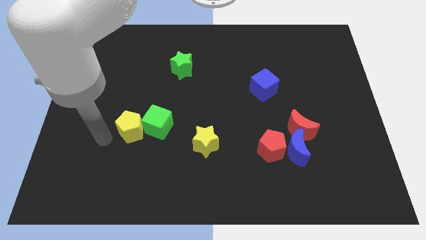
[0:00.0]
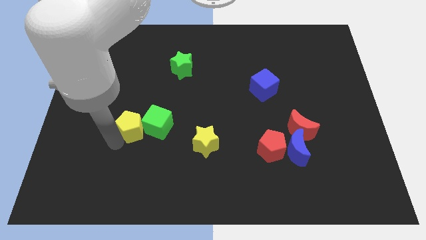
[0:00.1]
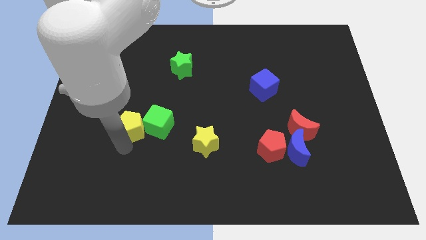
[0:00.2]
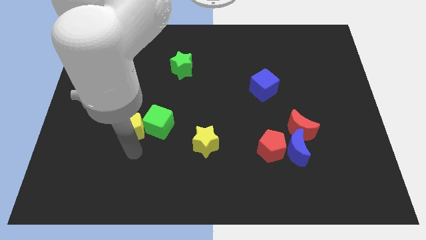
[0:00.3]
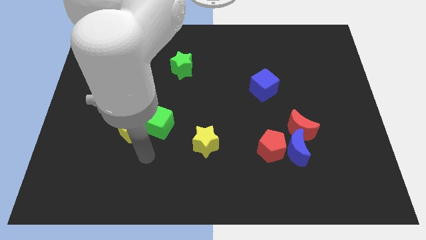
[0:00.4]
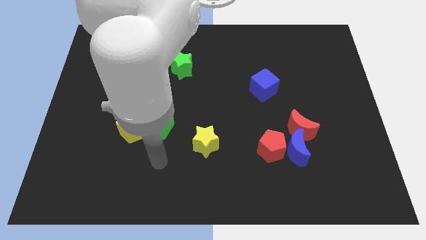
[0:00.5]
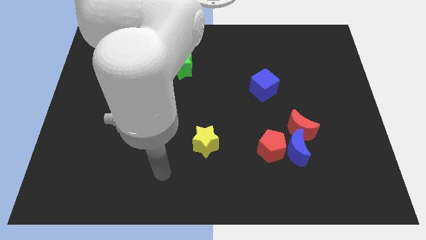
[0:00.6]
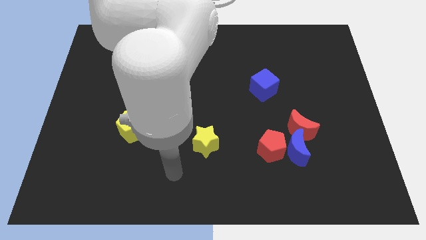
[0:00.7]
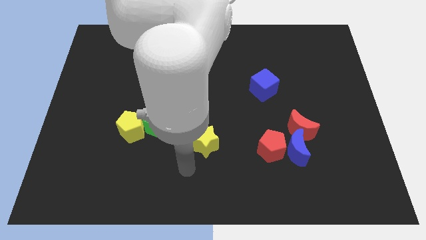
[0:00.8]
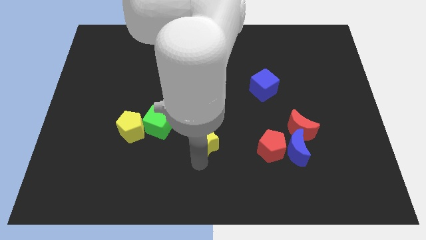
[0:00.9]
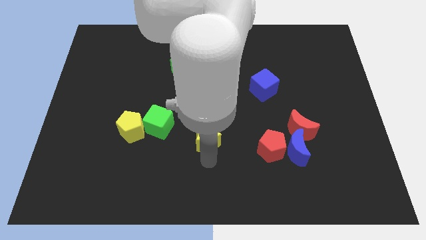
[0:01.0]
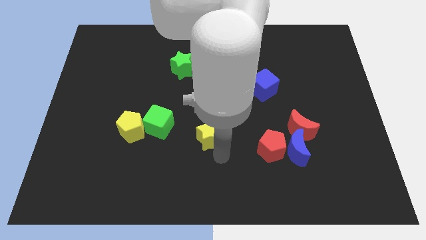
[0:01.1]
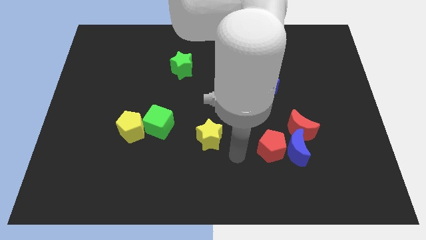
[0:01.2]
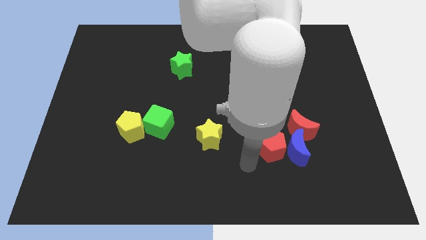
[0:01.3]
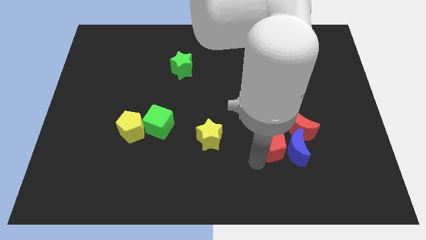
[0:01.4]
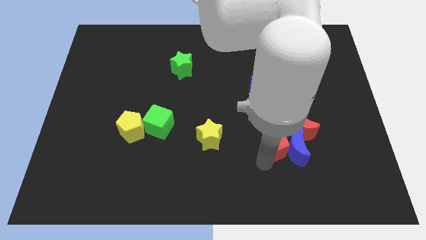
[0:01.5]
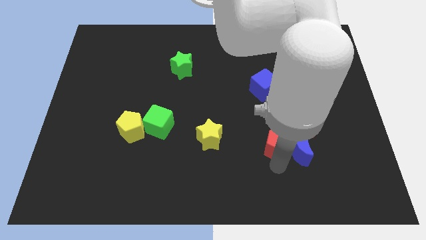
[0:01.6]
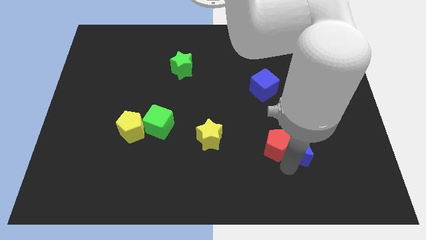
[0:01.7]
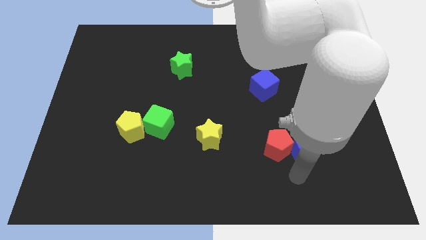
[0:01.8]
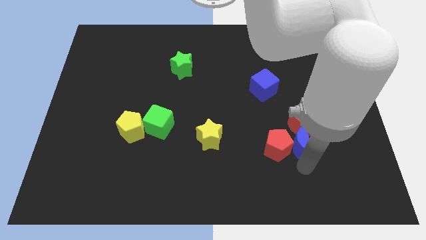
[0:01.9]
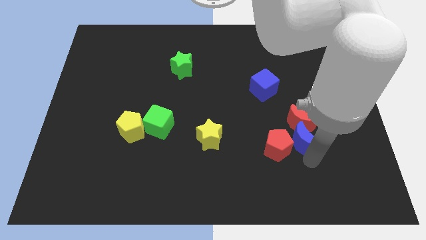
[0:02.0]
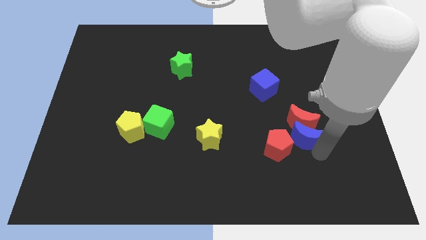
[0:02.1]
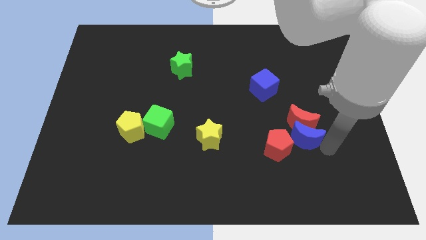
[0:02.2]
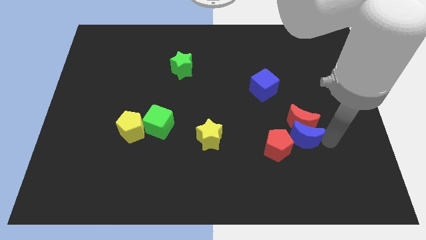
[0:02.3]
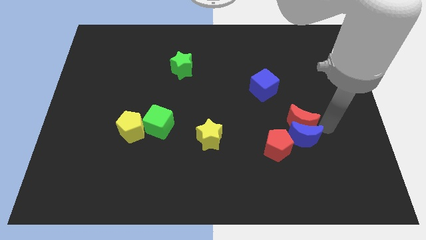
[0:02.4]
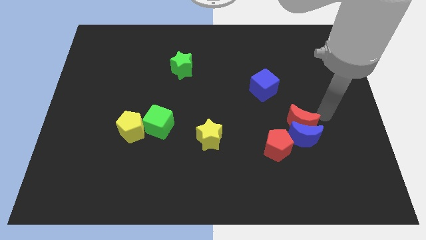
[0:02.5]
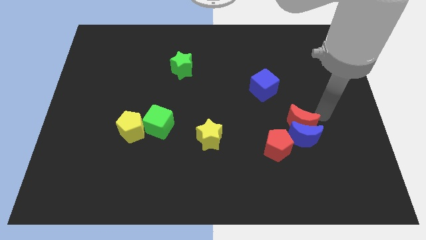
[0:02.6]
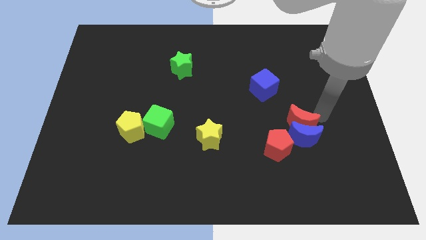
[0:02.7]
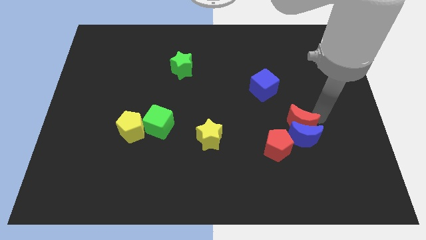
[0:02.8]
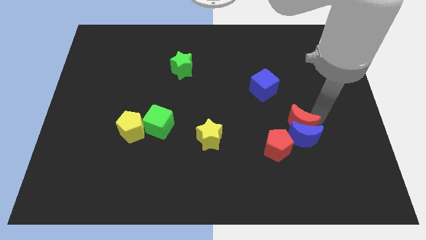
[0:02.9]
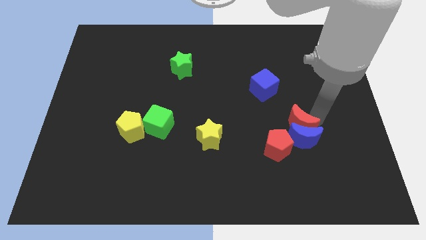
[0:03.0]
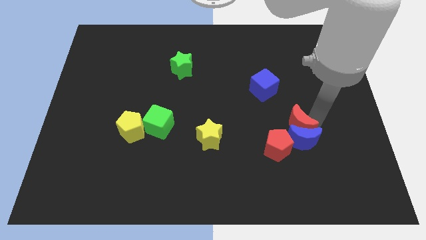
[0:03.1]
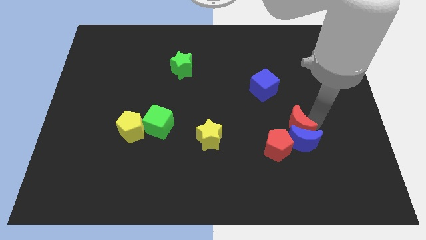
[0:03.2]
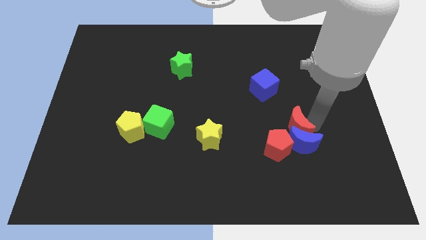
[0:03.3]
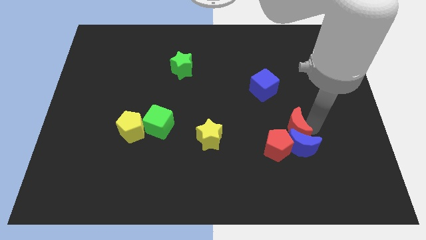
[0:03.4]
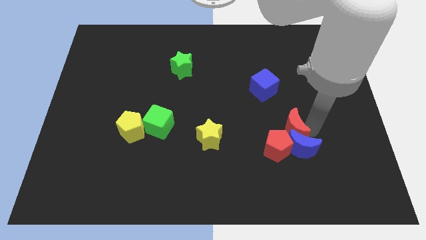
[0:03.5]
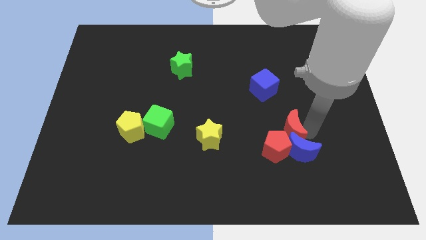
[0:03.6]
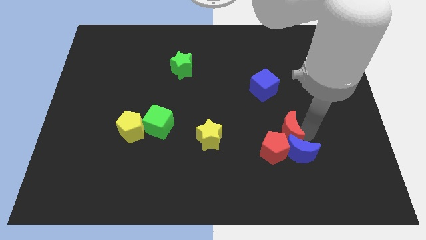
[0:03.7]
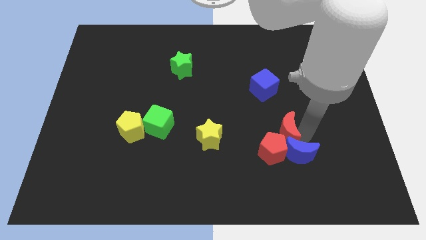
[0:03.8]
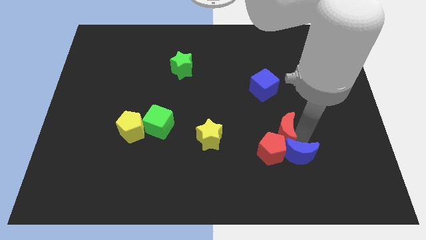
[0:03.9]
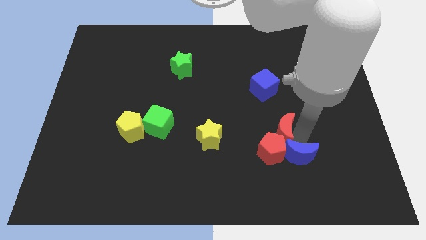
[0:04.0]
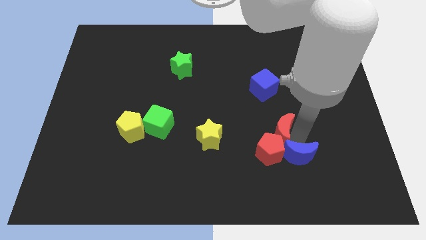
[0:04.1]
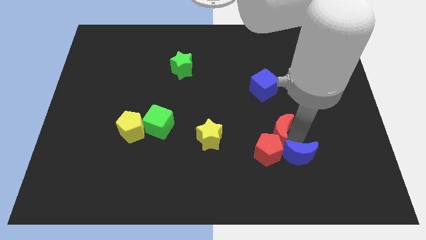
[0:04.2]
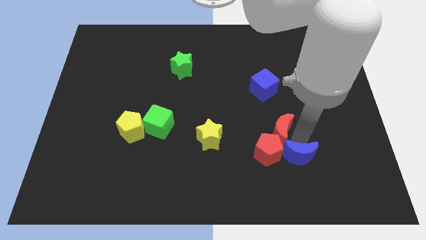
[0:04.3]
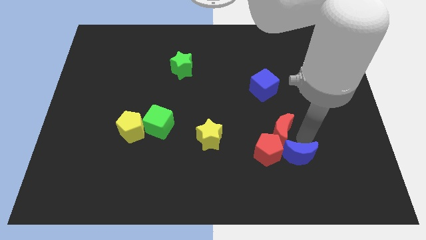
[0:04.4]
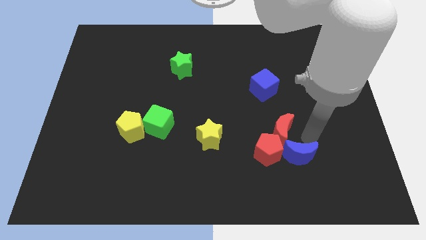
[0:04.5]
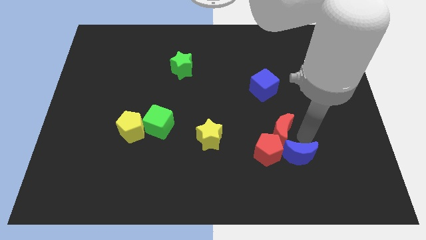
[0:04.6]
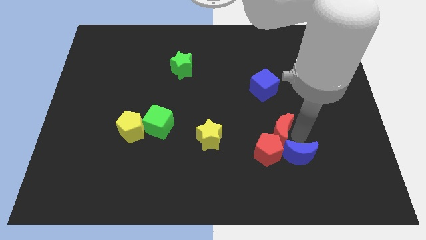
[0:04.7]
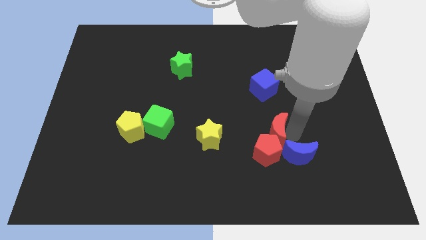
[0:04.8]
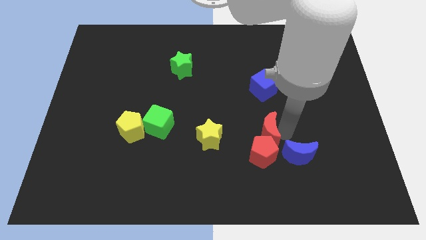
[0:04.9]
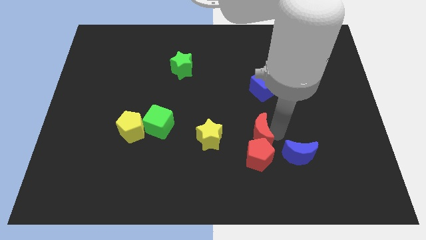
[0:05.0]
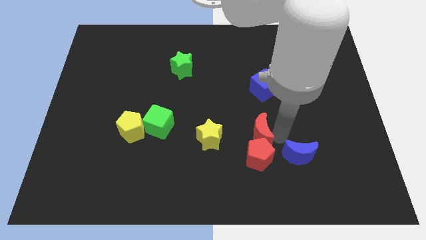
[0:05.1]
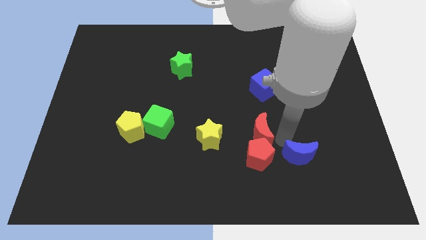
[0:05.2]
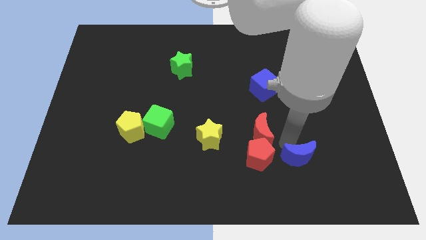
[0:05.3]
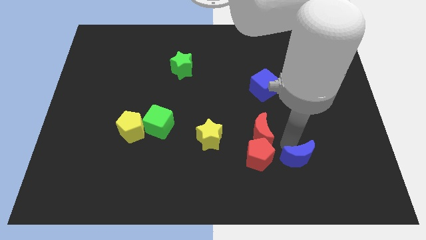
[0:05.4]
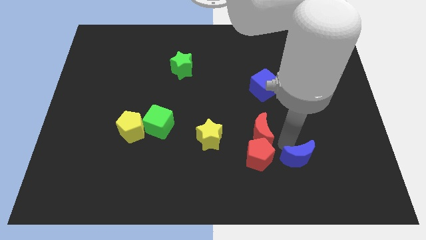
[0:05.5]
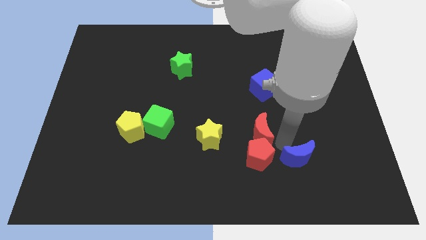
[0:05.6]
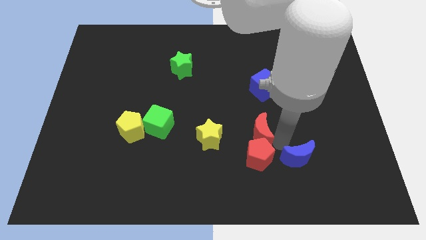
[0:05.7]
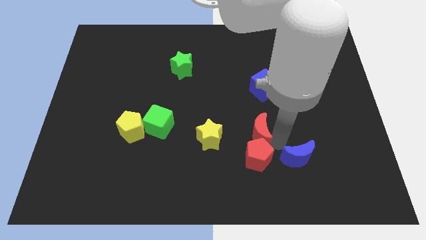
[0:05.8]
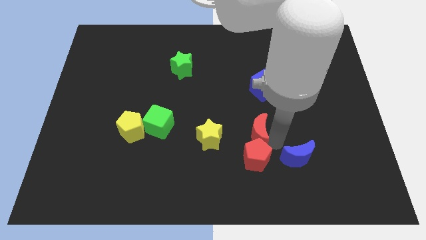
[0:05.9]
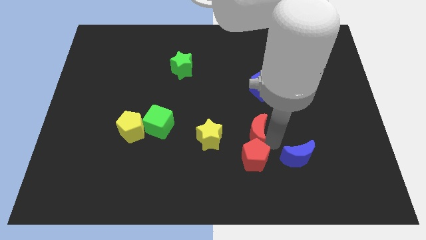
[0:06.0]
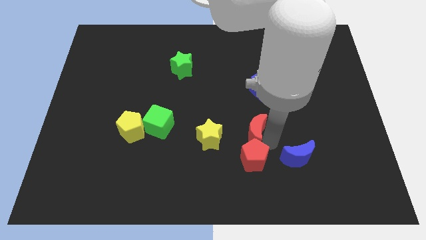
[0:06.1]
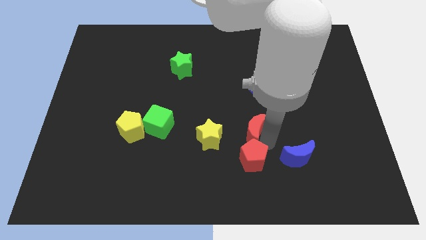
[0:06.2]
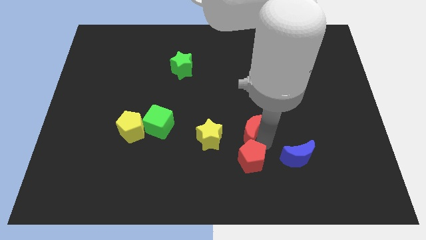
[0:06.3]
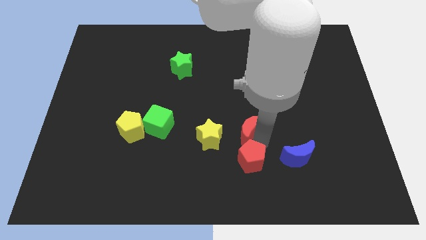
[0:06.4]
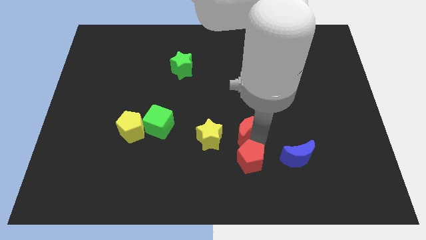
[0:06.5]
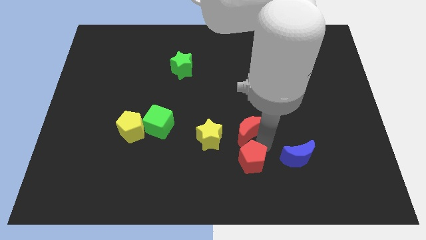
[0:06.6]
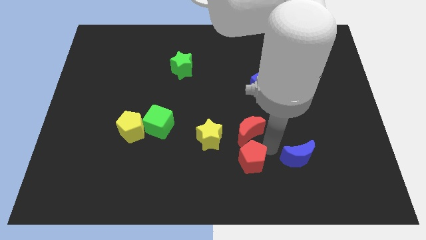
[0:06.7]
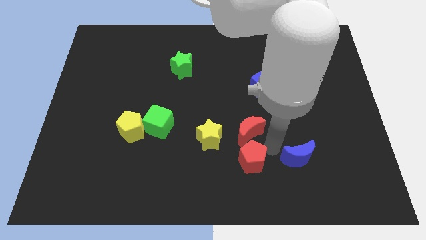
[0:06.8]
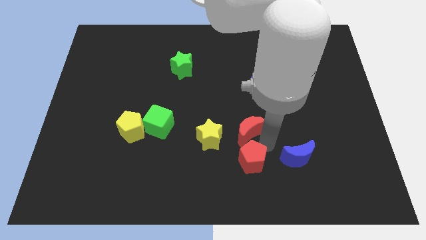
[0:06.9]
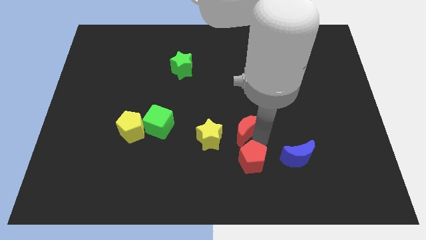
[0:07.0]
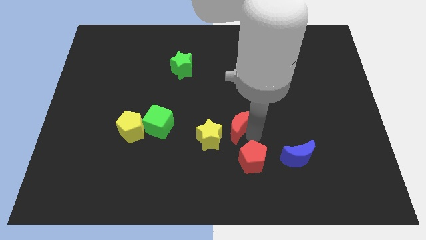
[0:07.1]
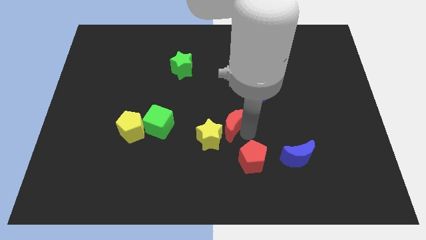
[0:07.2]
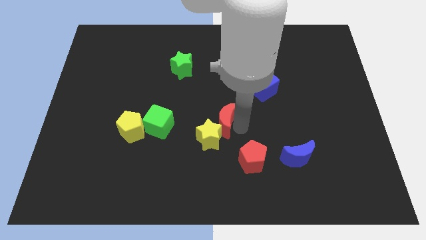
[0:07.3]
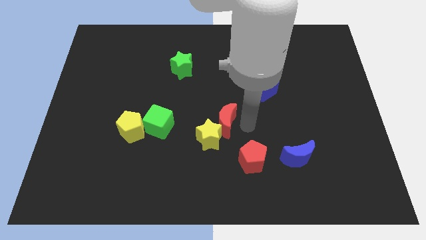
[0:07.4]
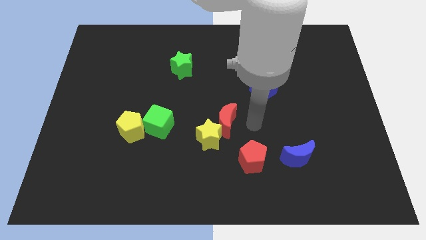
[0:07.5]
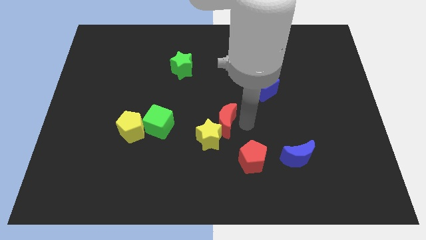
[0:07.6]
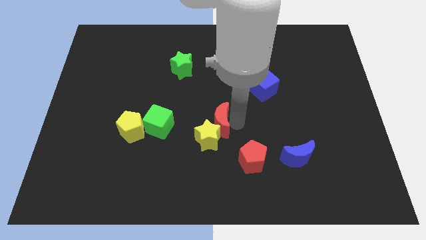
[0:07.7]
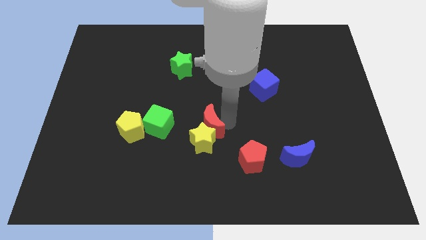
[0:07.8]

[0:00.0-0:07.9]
move the red moon to the top left of the yellow star
